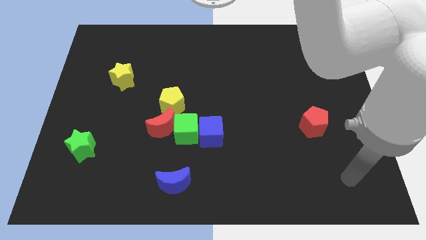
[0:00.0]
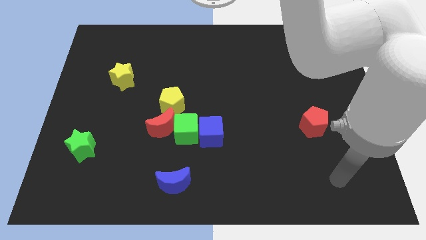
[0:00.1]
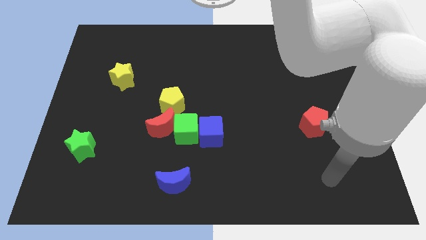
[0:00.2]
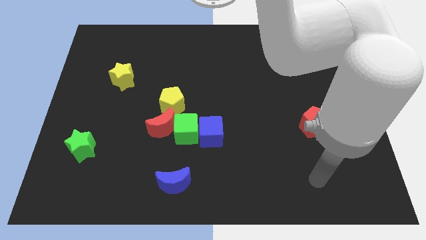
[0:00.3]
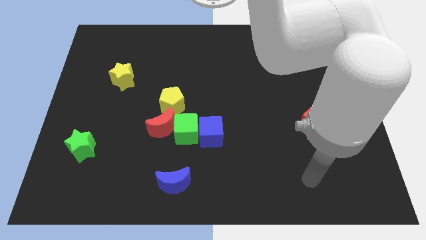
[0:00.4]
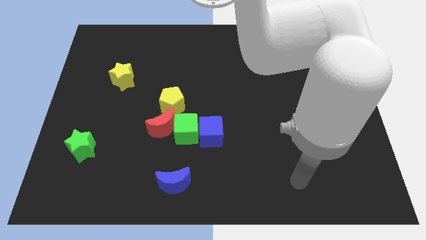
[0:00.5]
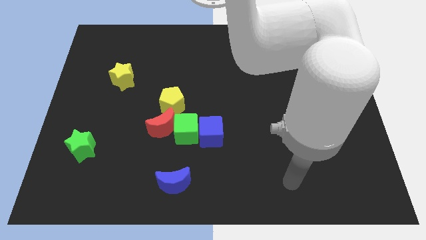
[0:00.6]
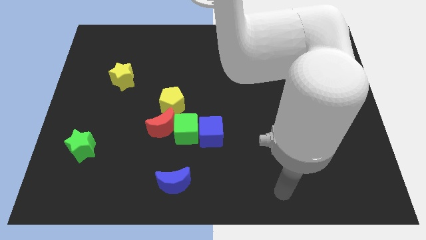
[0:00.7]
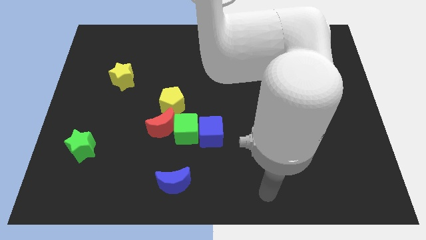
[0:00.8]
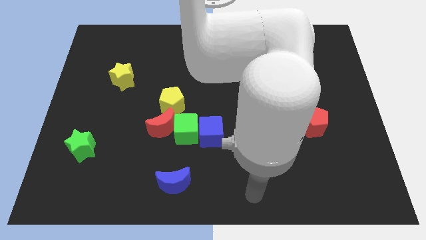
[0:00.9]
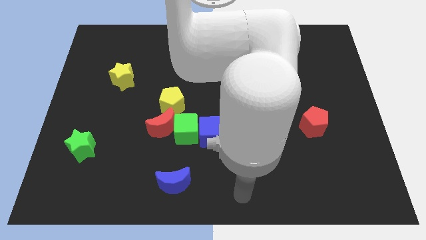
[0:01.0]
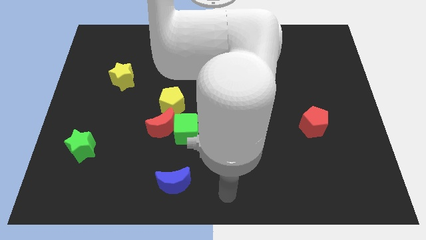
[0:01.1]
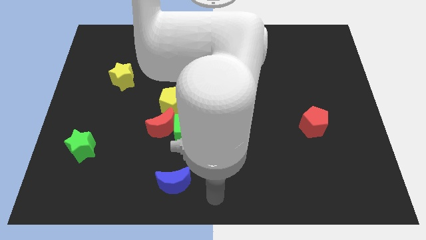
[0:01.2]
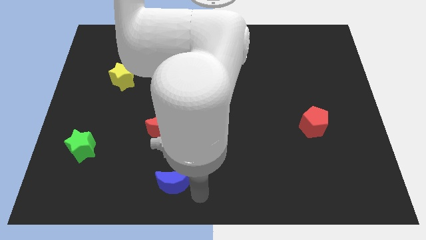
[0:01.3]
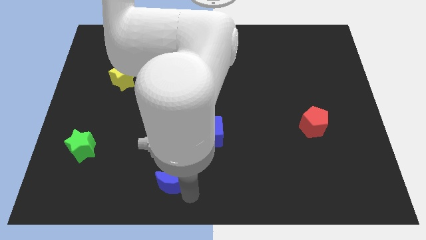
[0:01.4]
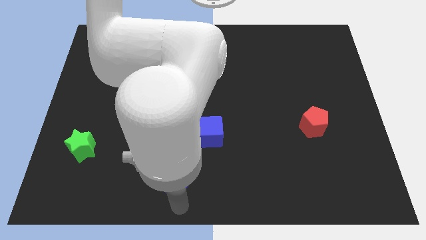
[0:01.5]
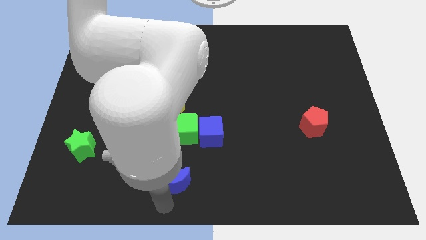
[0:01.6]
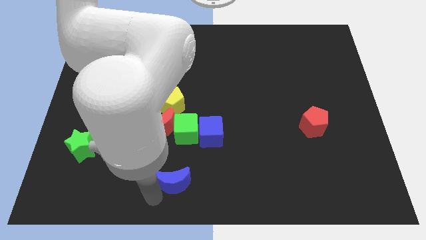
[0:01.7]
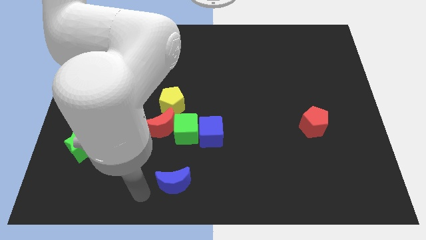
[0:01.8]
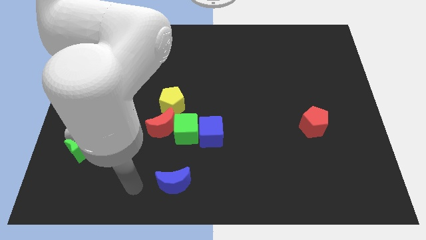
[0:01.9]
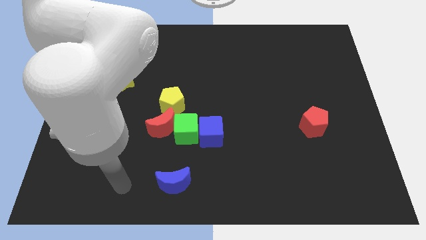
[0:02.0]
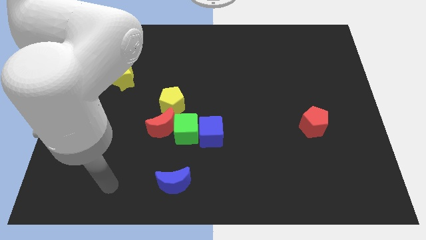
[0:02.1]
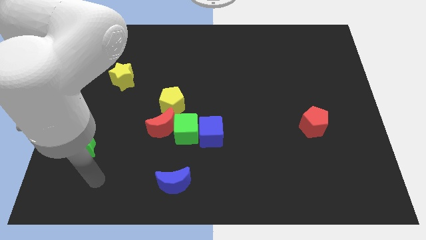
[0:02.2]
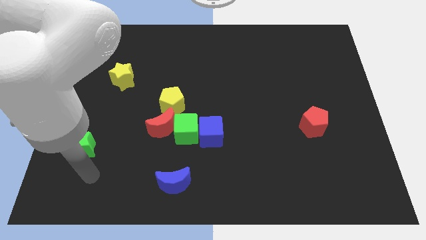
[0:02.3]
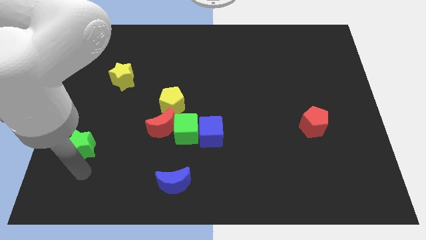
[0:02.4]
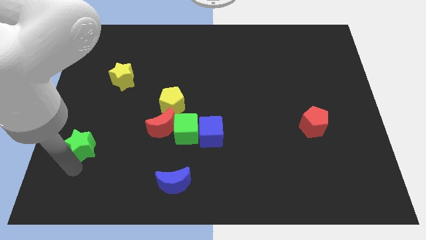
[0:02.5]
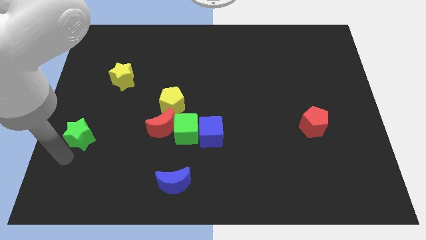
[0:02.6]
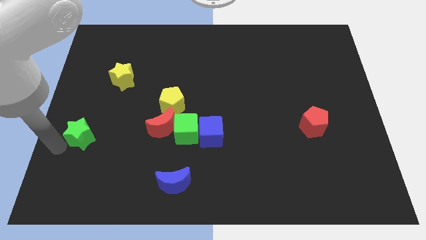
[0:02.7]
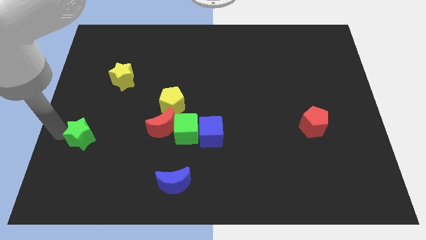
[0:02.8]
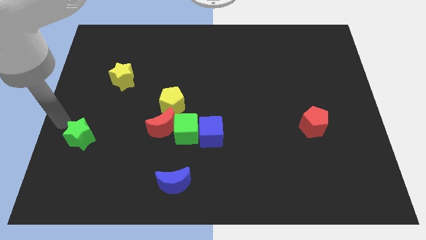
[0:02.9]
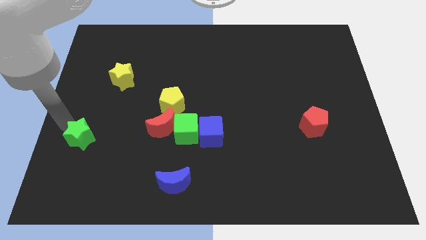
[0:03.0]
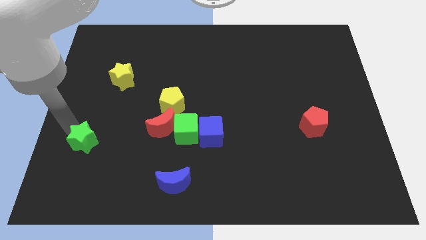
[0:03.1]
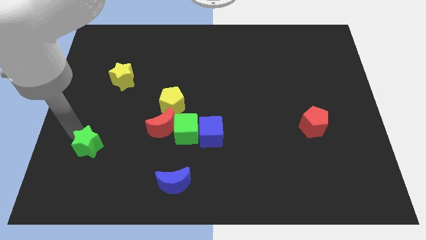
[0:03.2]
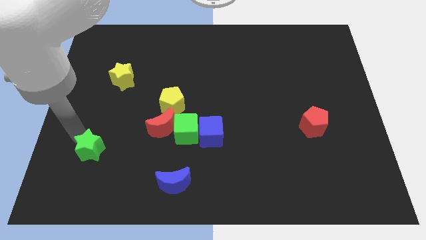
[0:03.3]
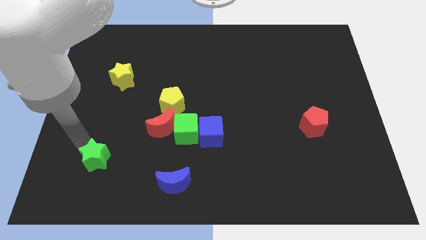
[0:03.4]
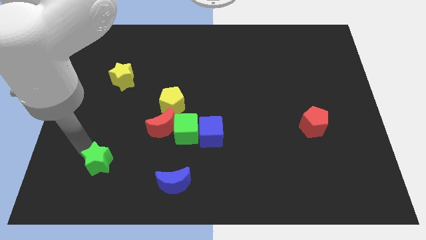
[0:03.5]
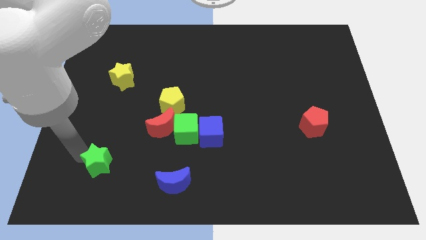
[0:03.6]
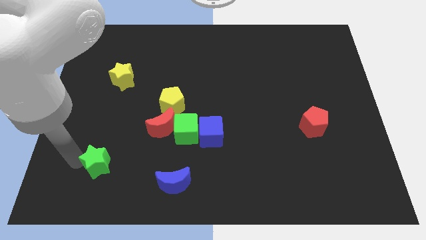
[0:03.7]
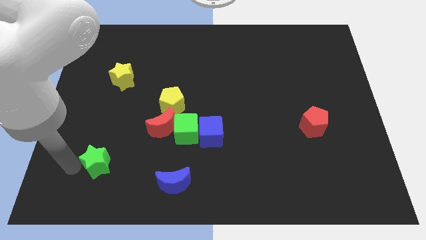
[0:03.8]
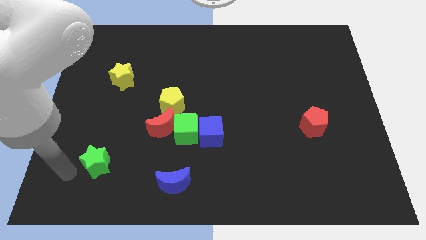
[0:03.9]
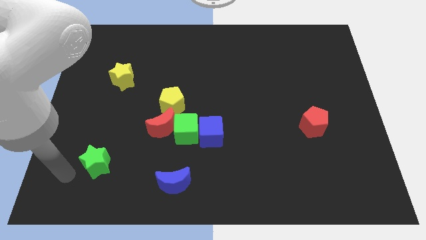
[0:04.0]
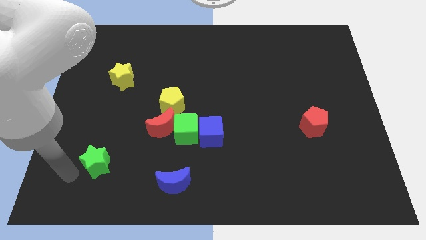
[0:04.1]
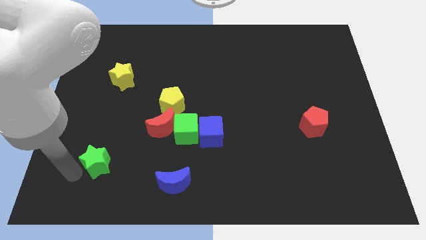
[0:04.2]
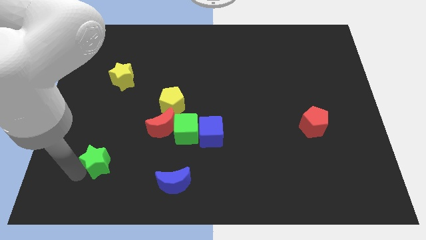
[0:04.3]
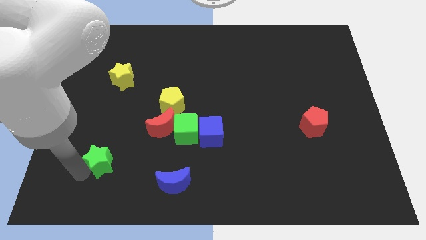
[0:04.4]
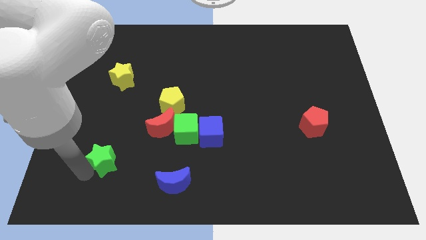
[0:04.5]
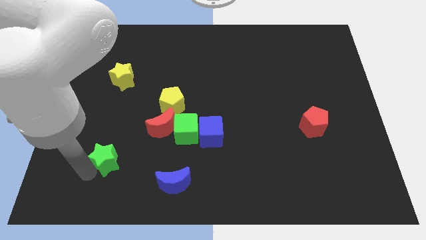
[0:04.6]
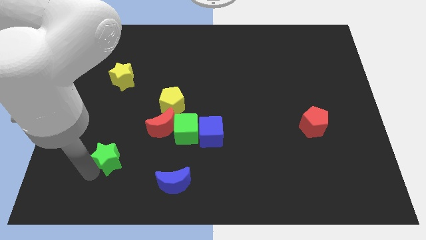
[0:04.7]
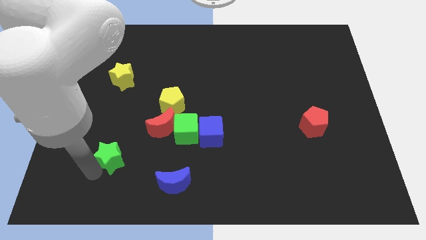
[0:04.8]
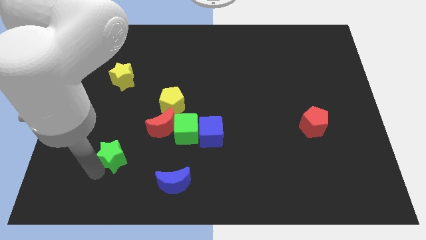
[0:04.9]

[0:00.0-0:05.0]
move the green star a little right

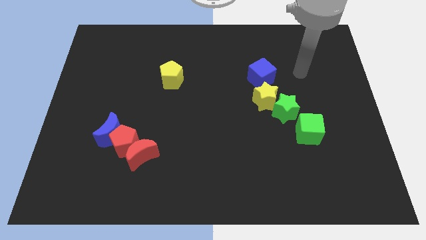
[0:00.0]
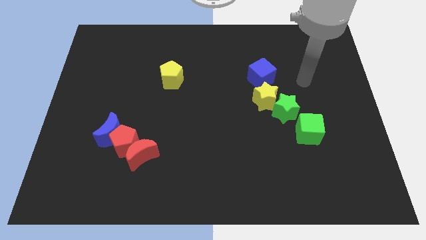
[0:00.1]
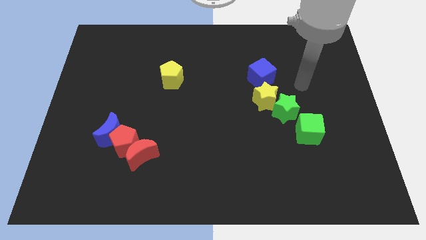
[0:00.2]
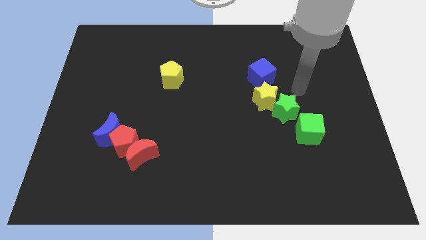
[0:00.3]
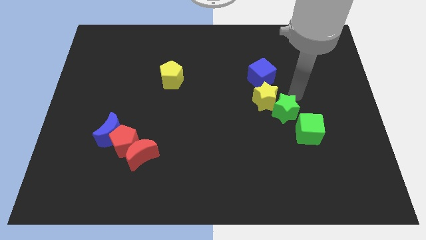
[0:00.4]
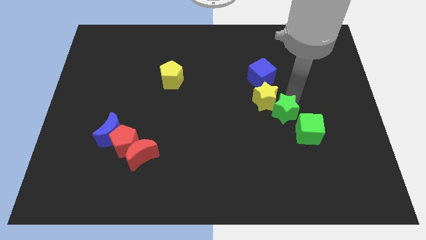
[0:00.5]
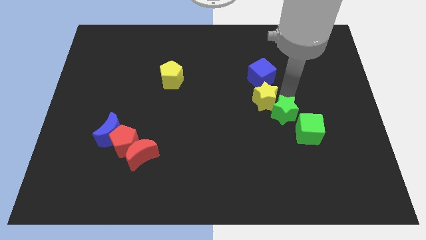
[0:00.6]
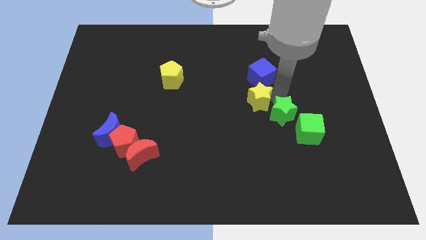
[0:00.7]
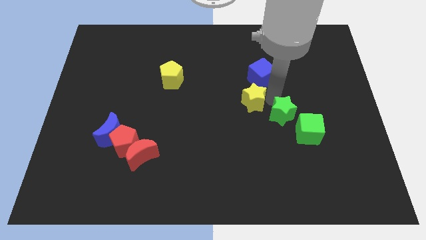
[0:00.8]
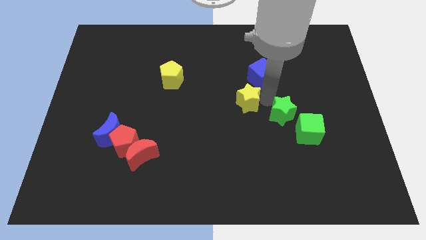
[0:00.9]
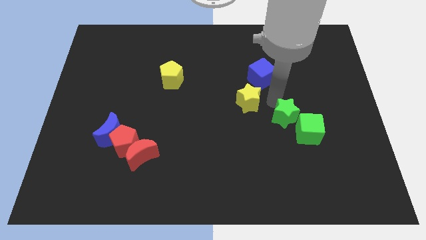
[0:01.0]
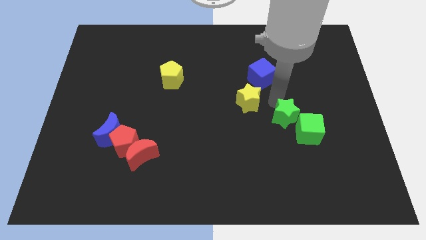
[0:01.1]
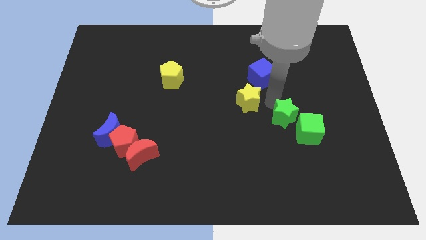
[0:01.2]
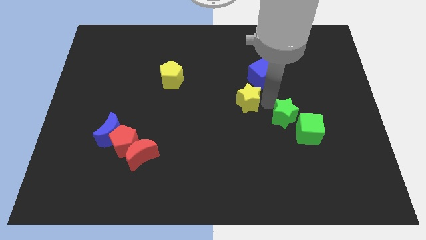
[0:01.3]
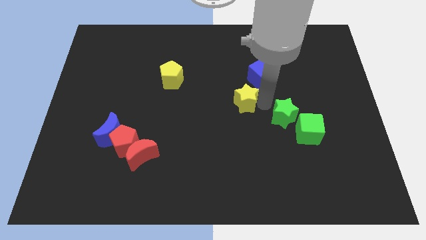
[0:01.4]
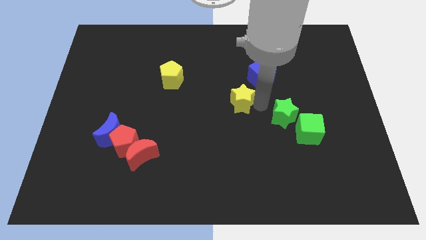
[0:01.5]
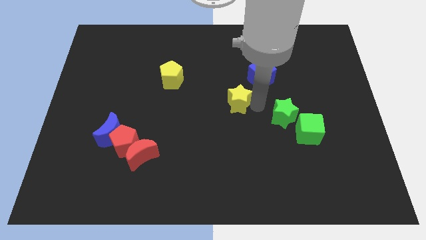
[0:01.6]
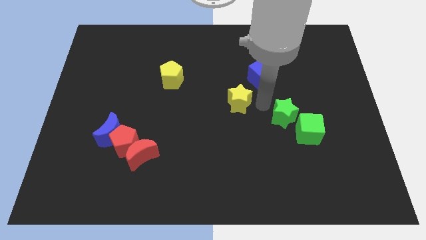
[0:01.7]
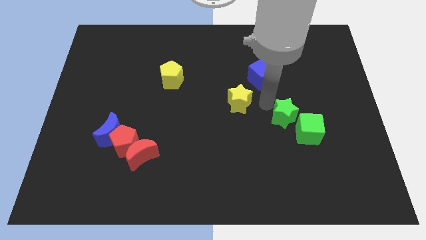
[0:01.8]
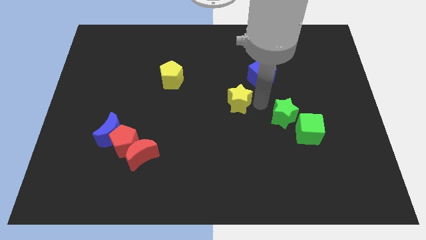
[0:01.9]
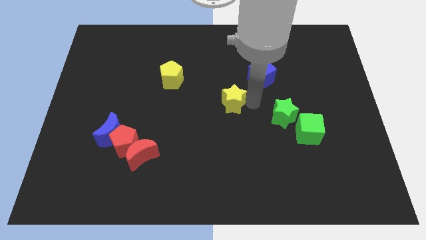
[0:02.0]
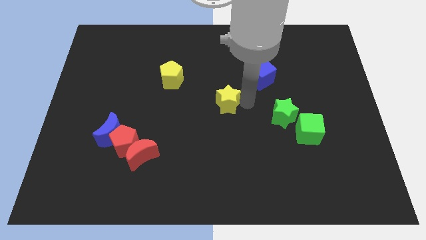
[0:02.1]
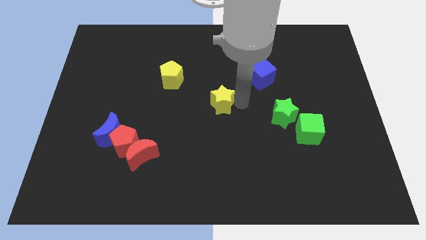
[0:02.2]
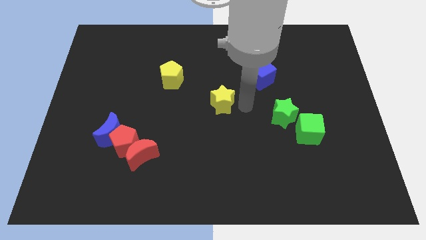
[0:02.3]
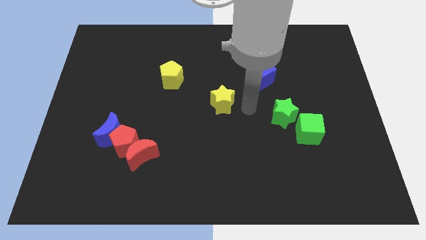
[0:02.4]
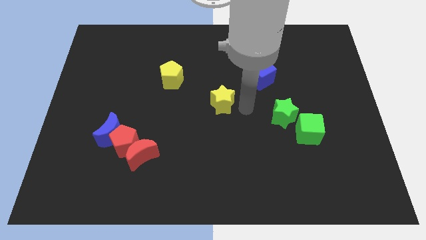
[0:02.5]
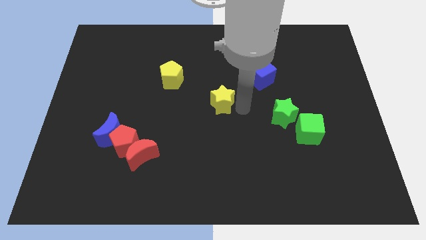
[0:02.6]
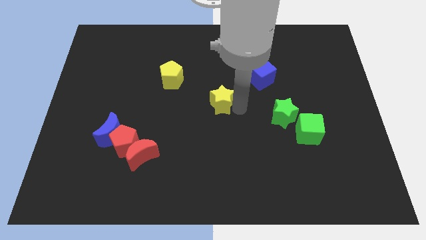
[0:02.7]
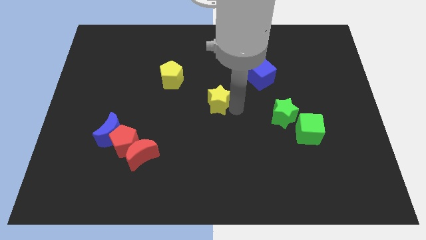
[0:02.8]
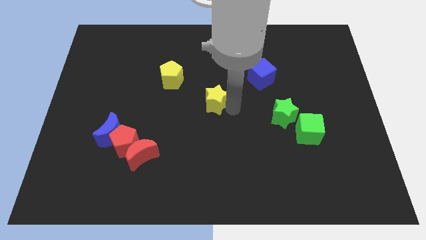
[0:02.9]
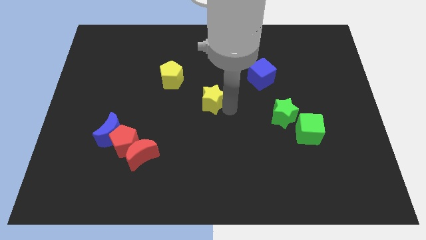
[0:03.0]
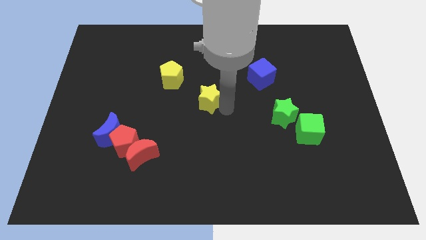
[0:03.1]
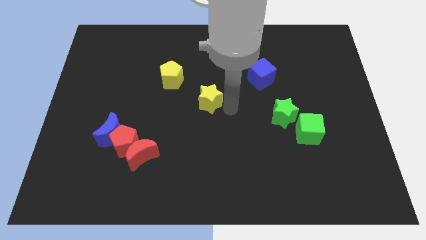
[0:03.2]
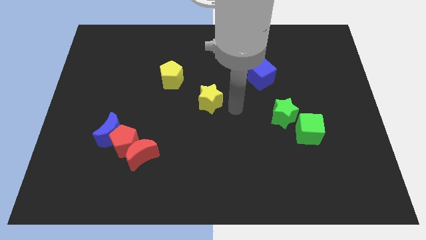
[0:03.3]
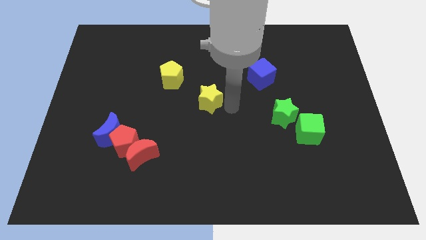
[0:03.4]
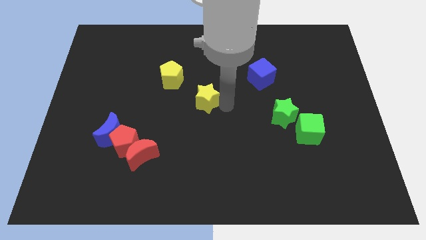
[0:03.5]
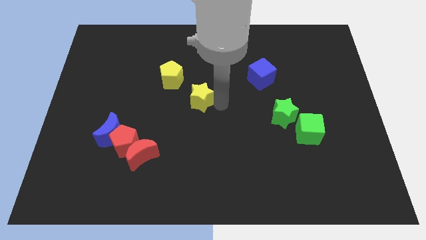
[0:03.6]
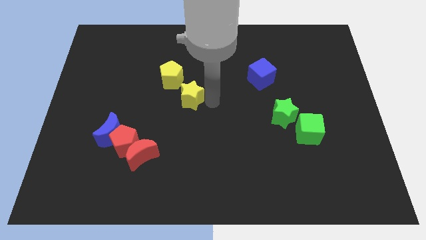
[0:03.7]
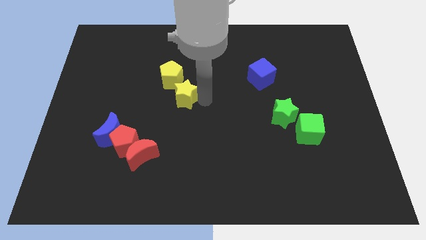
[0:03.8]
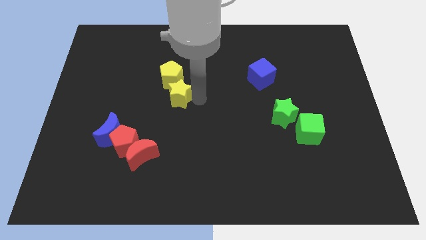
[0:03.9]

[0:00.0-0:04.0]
move the yellow star left
